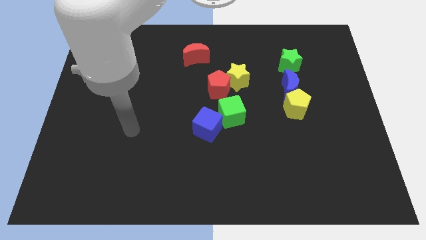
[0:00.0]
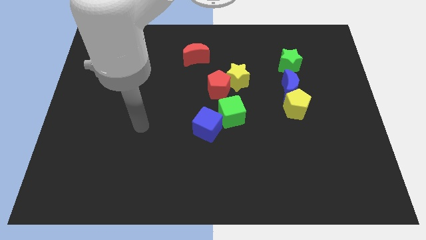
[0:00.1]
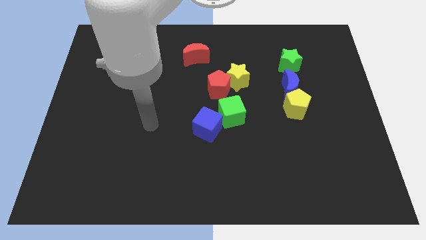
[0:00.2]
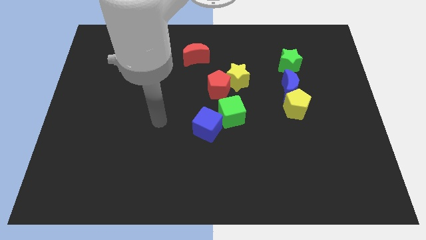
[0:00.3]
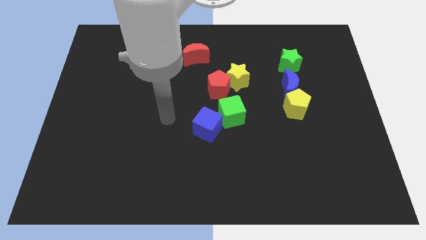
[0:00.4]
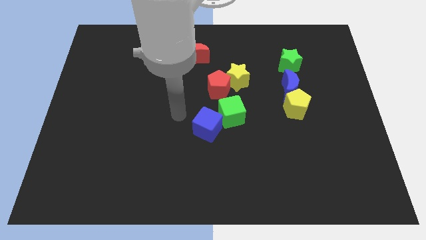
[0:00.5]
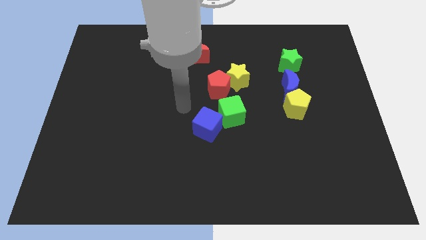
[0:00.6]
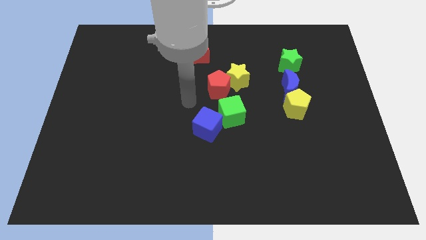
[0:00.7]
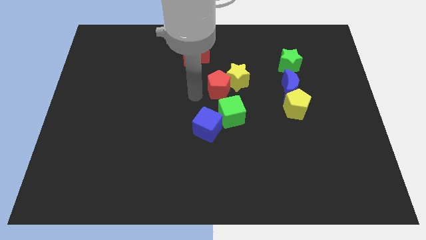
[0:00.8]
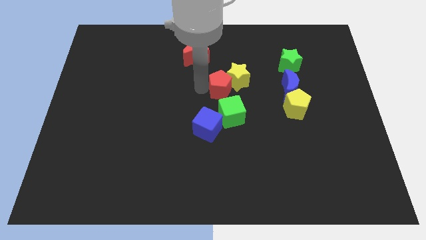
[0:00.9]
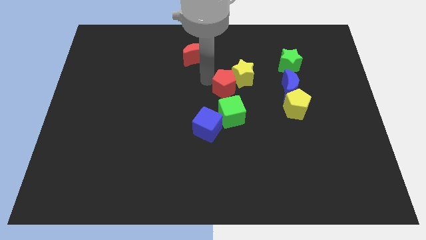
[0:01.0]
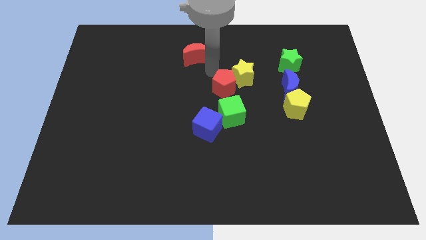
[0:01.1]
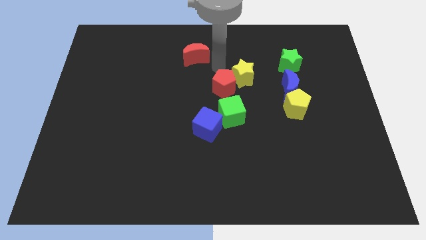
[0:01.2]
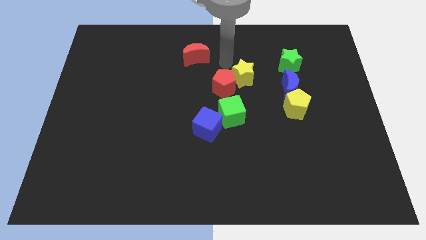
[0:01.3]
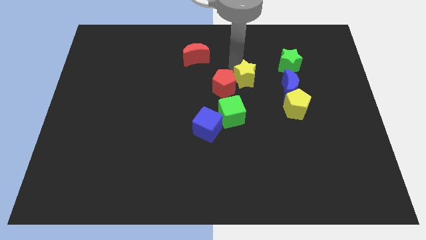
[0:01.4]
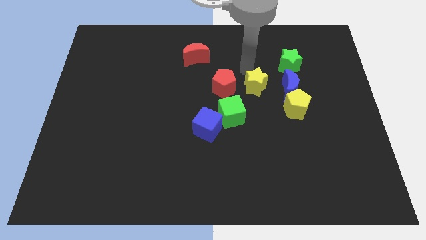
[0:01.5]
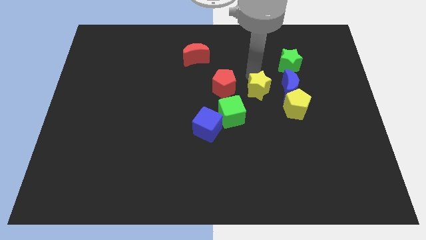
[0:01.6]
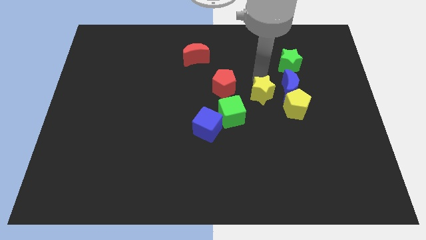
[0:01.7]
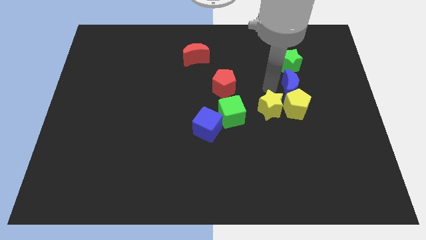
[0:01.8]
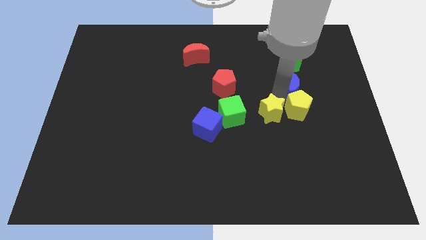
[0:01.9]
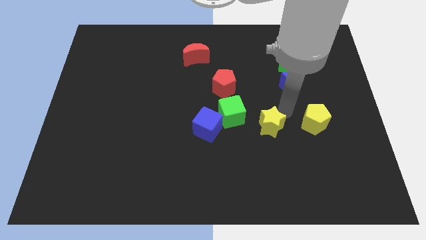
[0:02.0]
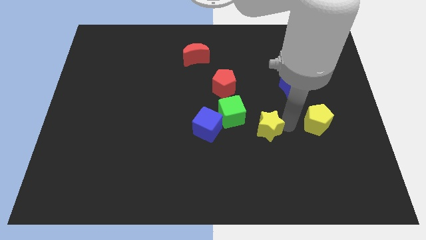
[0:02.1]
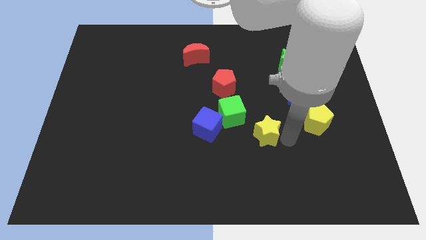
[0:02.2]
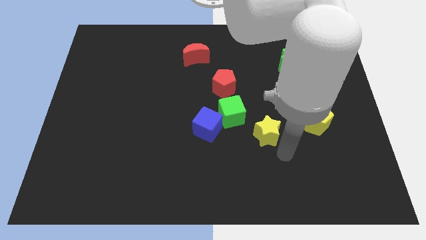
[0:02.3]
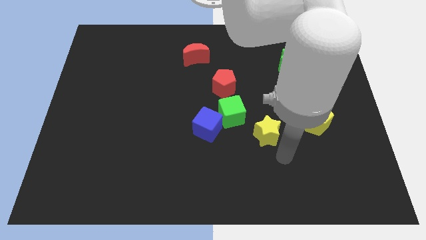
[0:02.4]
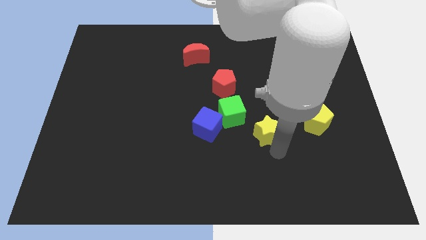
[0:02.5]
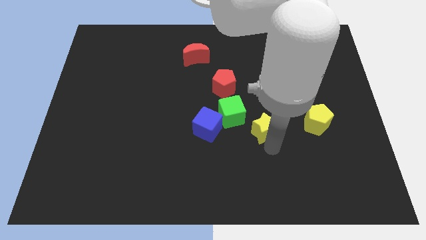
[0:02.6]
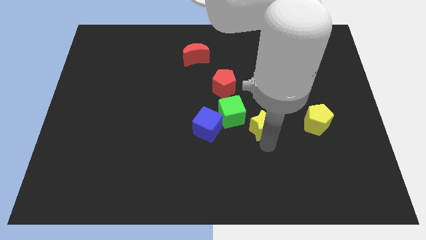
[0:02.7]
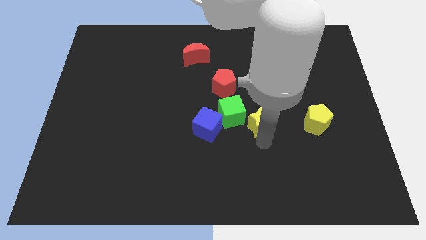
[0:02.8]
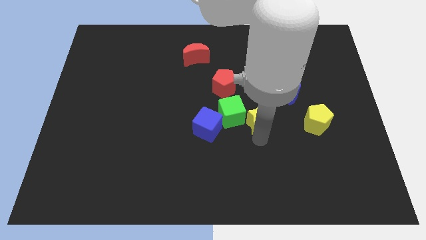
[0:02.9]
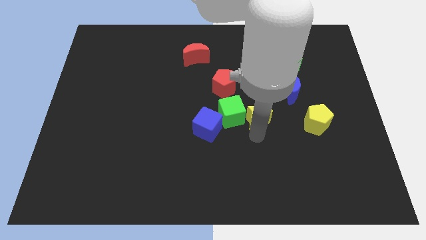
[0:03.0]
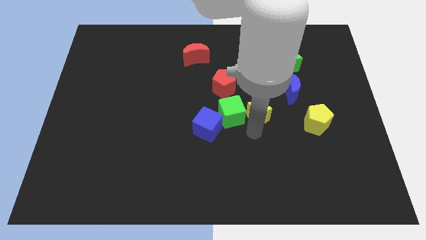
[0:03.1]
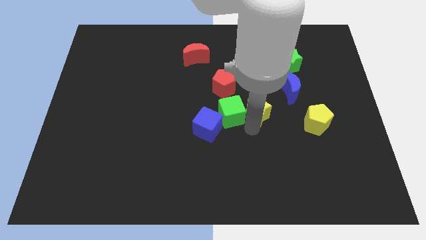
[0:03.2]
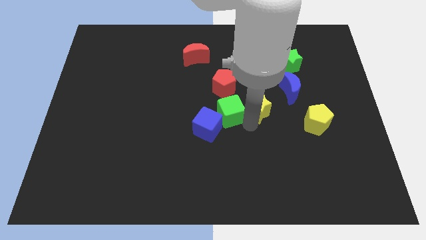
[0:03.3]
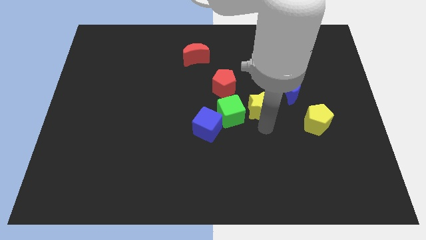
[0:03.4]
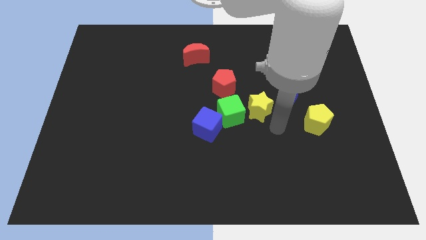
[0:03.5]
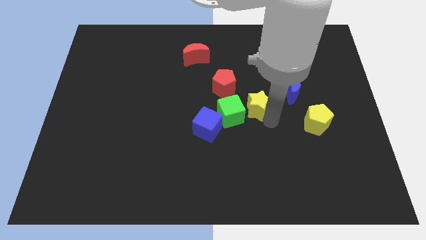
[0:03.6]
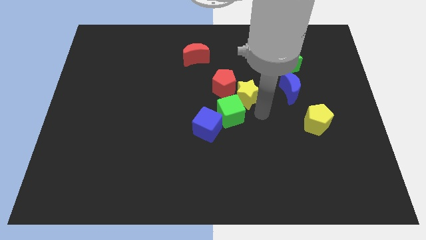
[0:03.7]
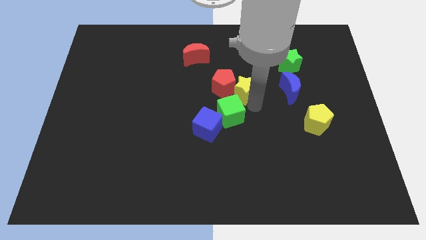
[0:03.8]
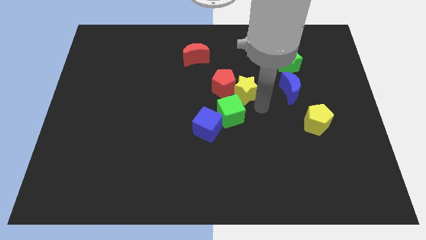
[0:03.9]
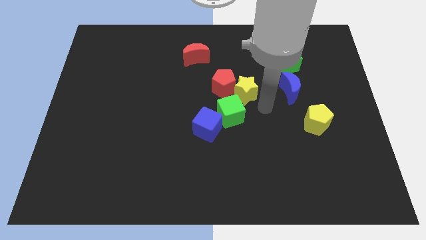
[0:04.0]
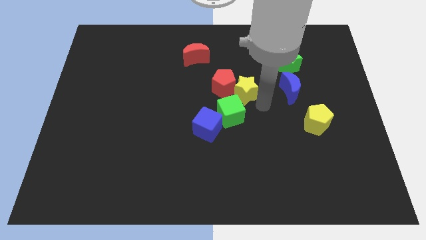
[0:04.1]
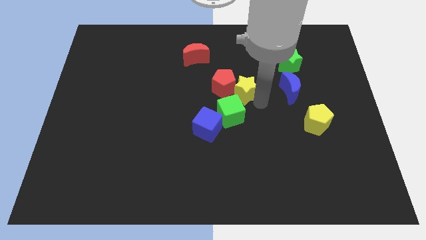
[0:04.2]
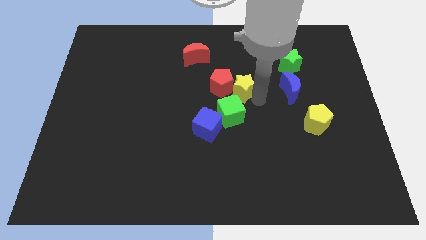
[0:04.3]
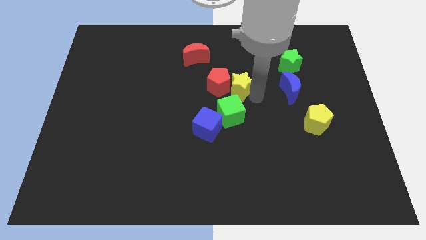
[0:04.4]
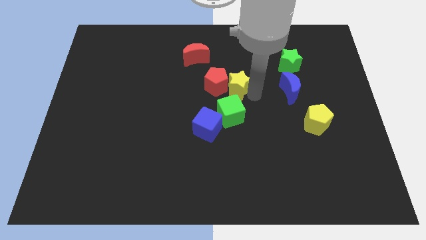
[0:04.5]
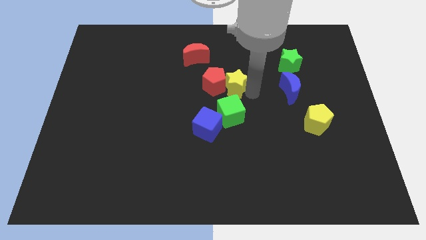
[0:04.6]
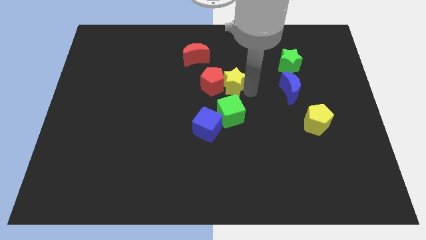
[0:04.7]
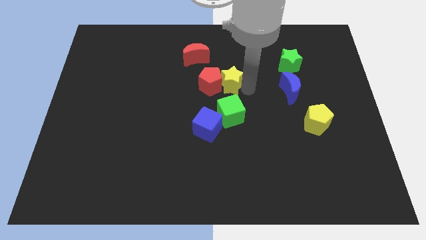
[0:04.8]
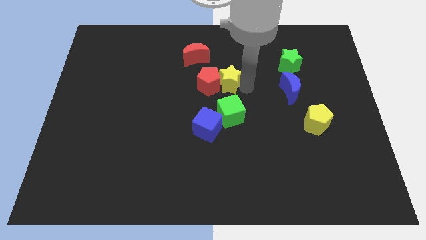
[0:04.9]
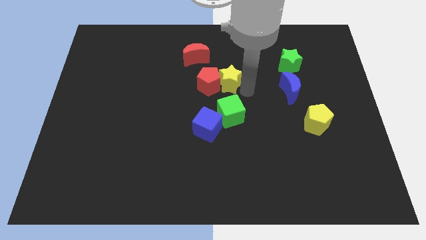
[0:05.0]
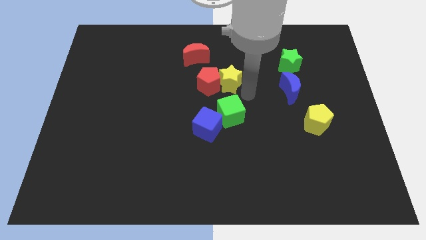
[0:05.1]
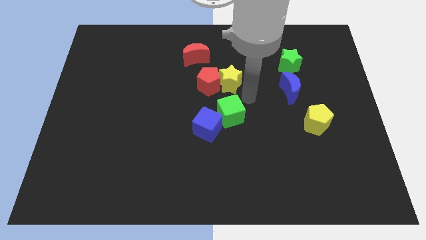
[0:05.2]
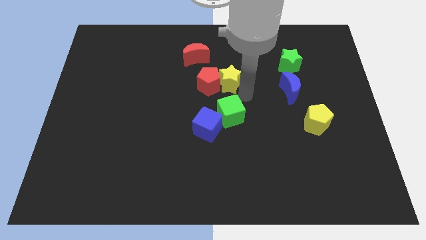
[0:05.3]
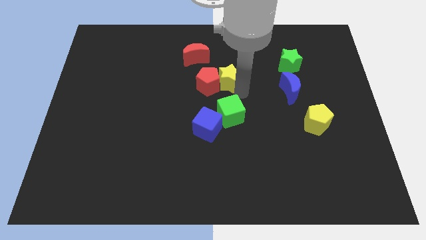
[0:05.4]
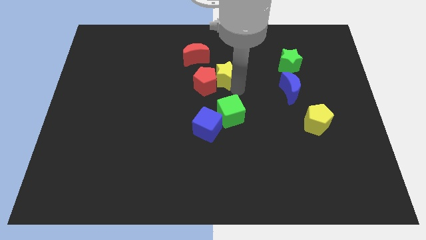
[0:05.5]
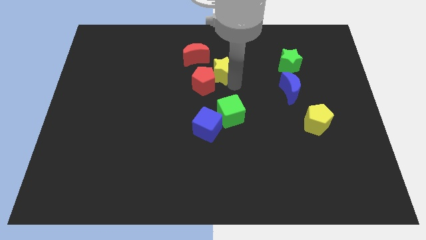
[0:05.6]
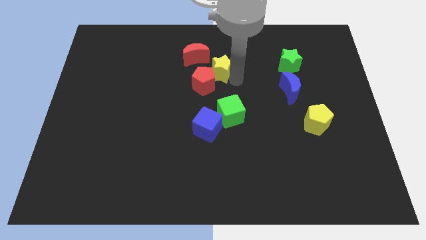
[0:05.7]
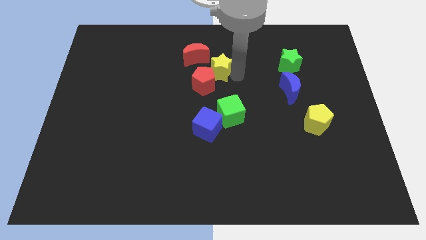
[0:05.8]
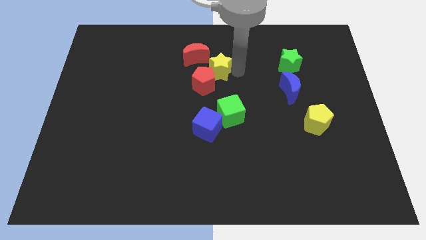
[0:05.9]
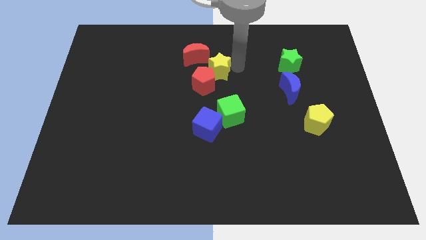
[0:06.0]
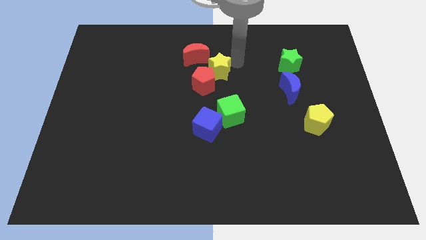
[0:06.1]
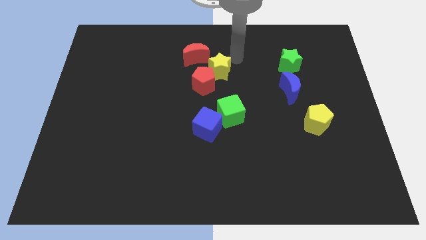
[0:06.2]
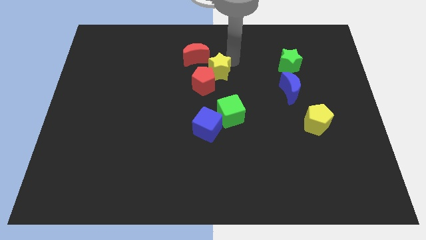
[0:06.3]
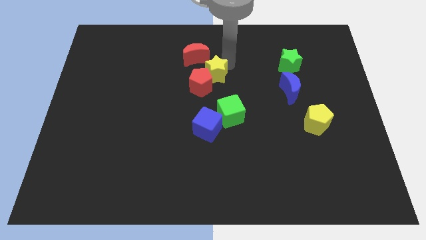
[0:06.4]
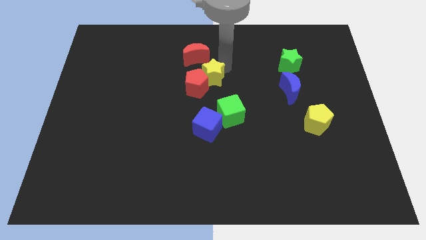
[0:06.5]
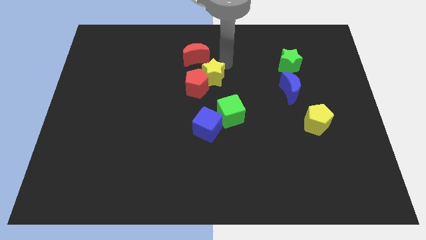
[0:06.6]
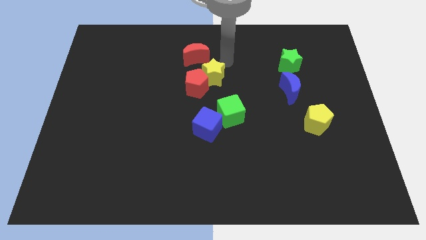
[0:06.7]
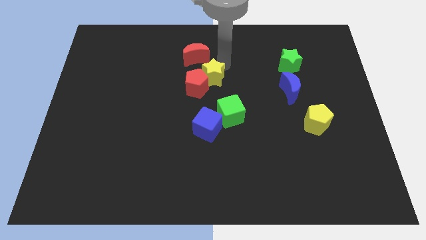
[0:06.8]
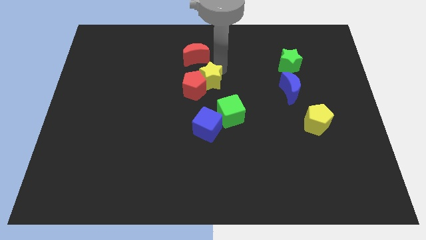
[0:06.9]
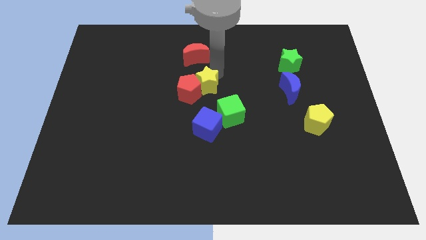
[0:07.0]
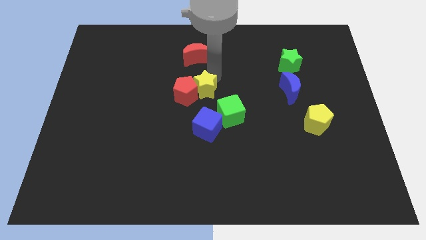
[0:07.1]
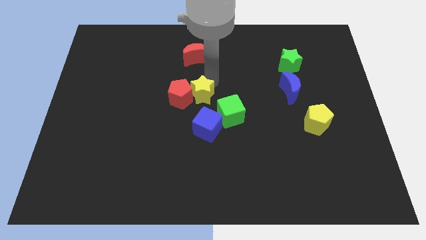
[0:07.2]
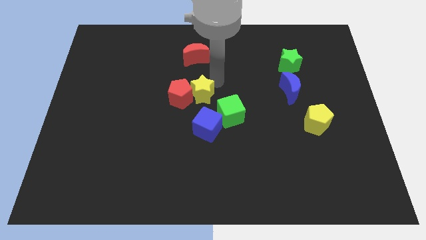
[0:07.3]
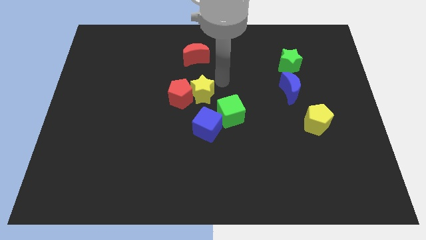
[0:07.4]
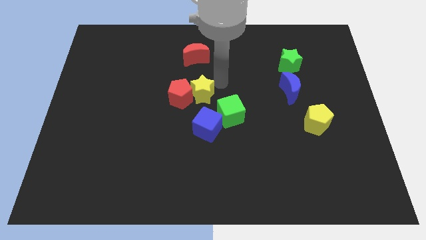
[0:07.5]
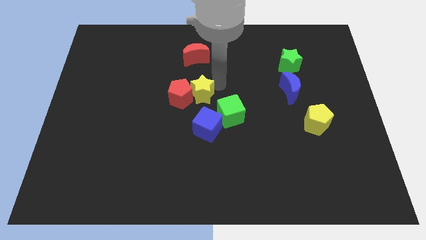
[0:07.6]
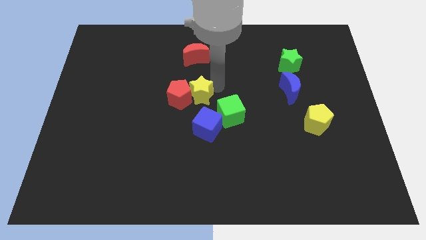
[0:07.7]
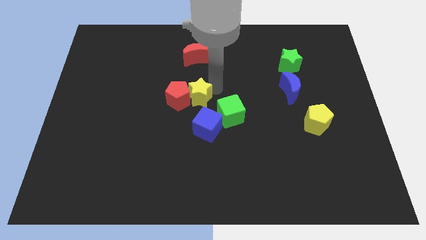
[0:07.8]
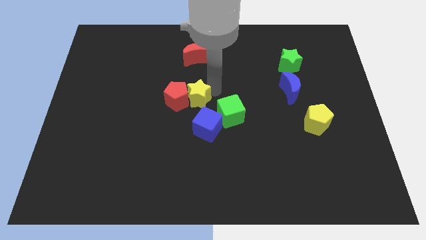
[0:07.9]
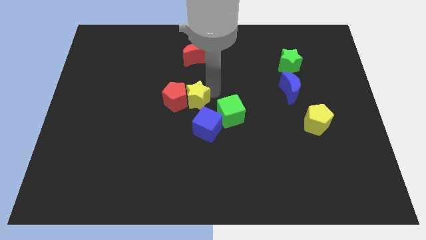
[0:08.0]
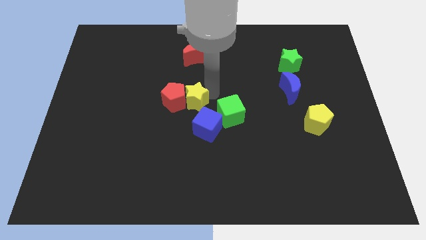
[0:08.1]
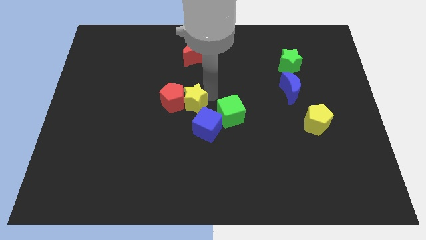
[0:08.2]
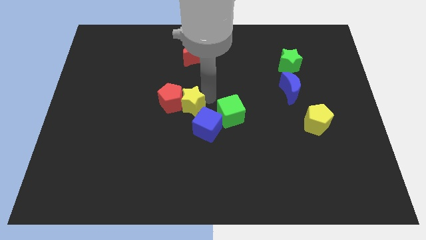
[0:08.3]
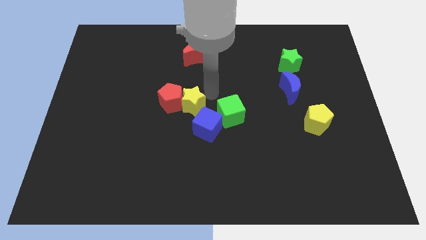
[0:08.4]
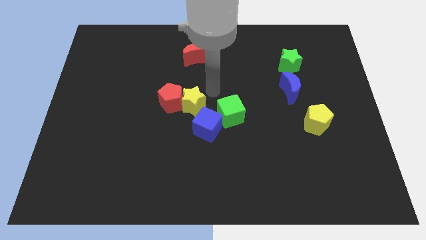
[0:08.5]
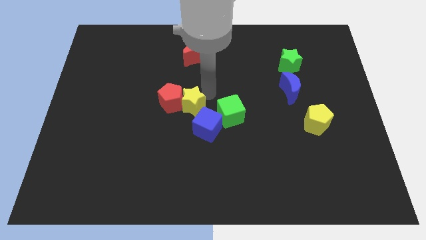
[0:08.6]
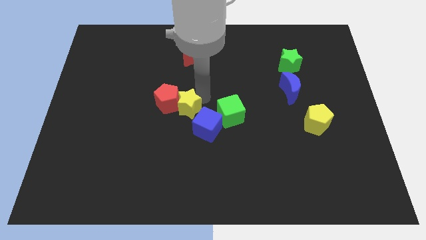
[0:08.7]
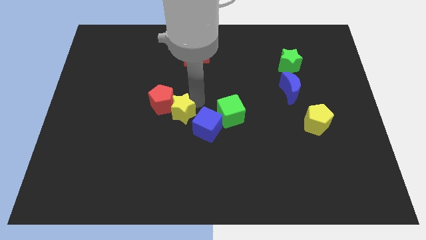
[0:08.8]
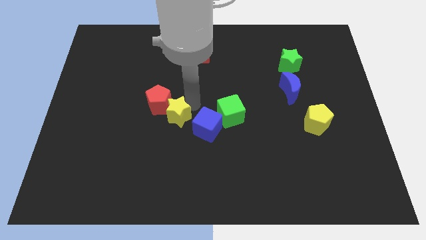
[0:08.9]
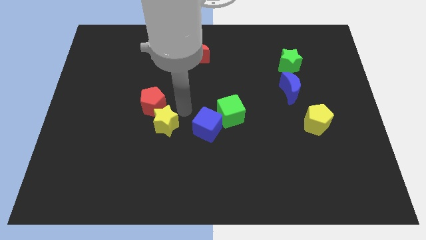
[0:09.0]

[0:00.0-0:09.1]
slide the yellow star downwards and to the left
